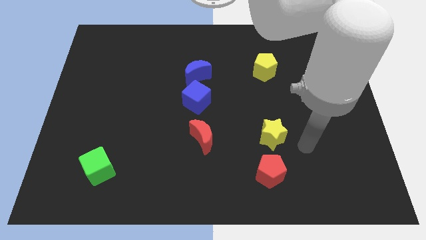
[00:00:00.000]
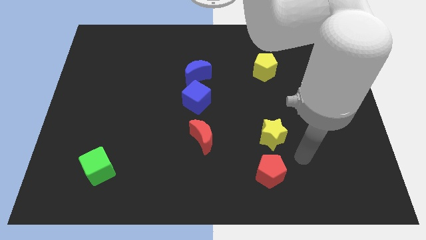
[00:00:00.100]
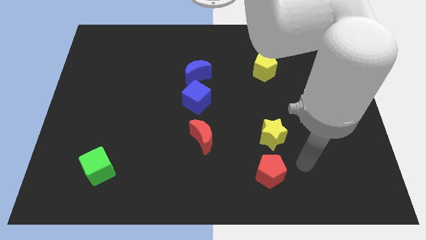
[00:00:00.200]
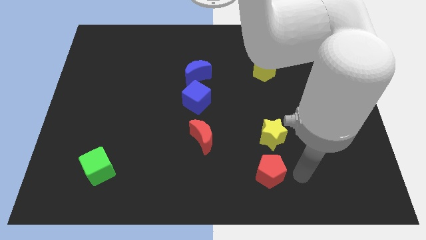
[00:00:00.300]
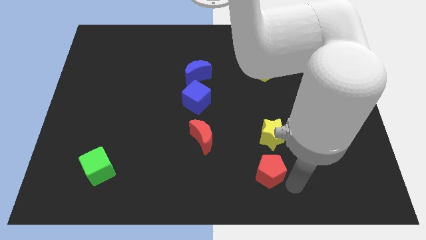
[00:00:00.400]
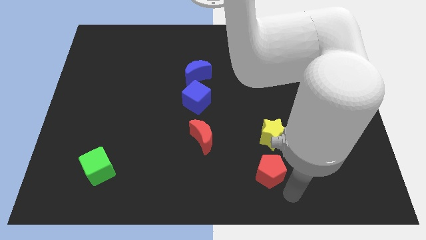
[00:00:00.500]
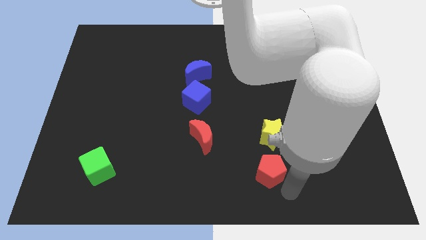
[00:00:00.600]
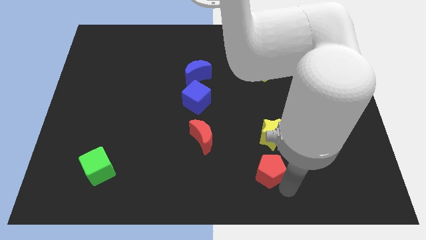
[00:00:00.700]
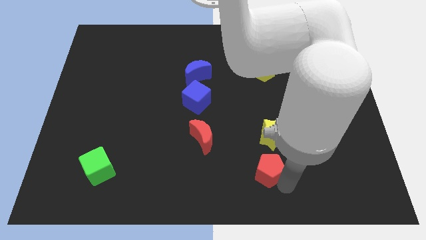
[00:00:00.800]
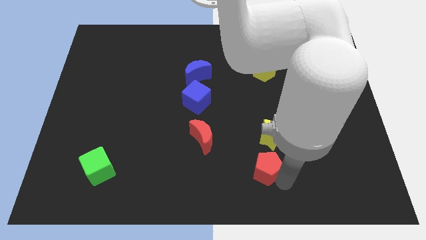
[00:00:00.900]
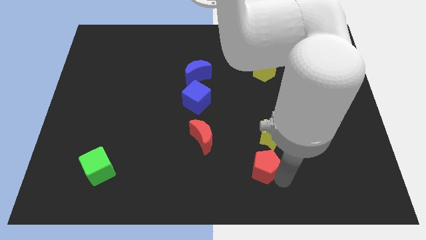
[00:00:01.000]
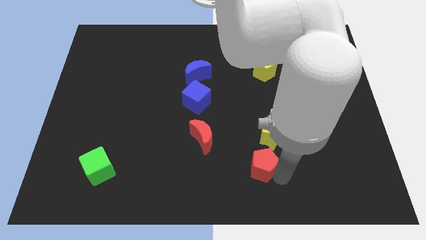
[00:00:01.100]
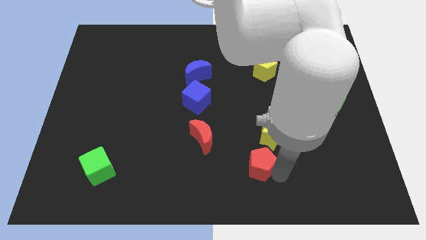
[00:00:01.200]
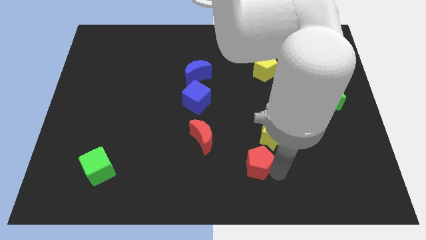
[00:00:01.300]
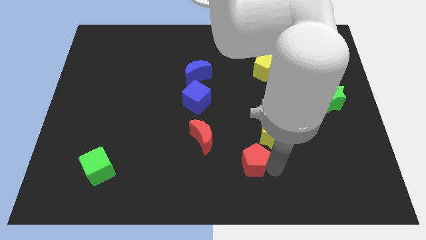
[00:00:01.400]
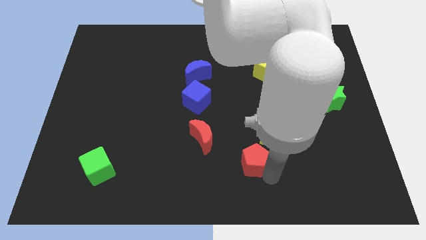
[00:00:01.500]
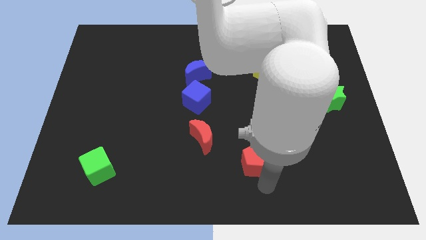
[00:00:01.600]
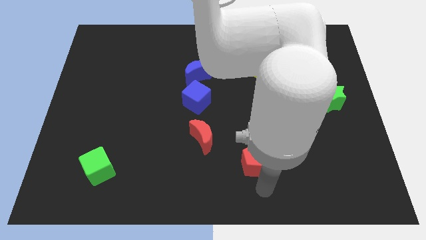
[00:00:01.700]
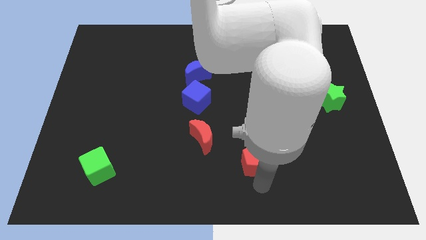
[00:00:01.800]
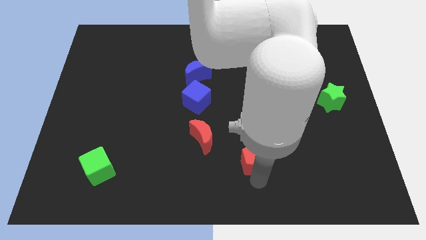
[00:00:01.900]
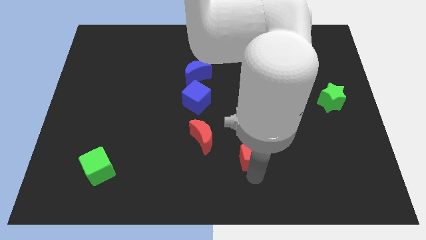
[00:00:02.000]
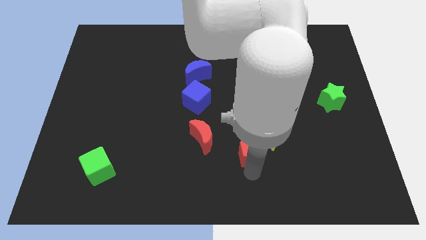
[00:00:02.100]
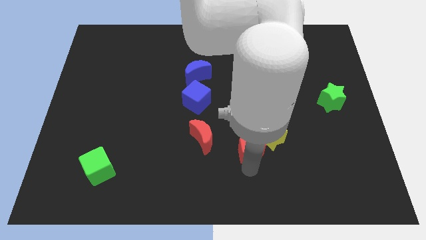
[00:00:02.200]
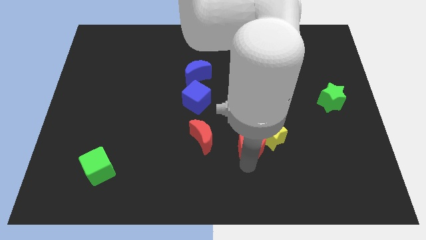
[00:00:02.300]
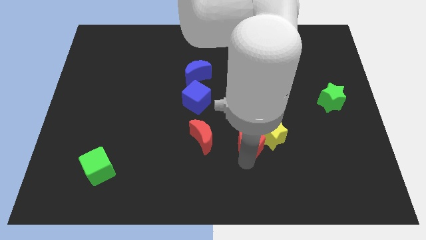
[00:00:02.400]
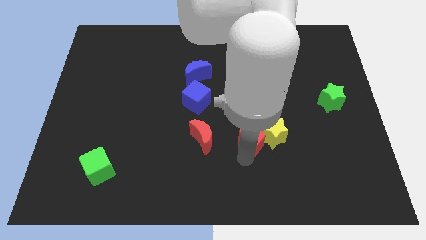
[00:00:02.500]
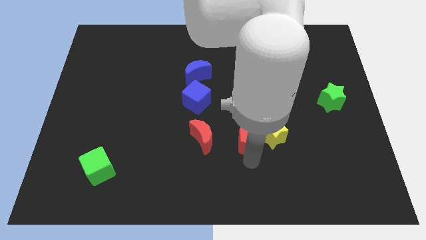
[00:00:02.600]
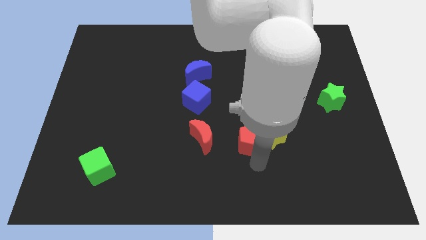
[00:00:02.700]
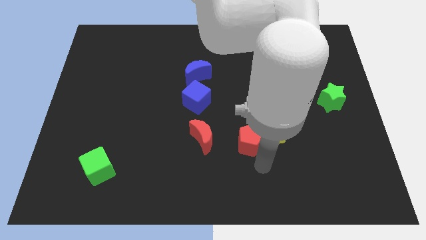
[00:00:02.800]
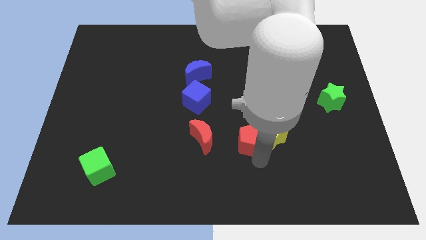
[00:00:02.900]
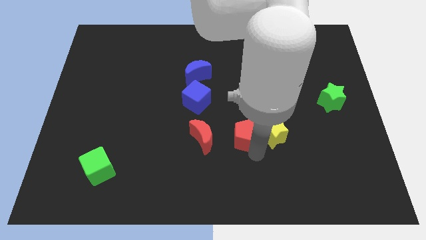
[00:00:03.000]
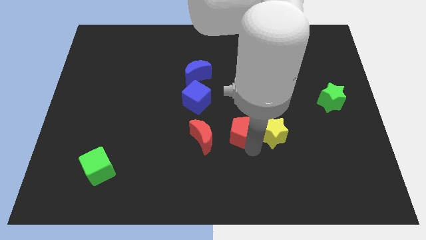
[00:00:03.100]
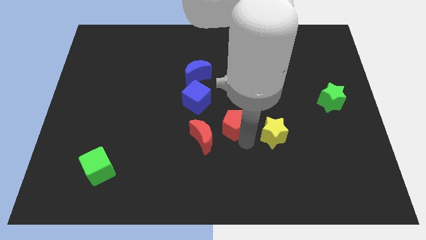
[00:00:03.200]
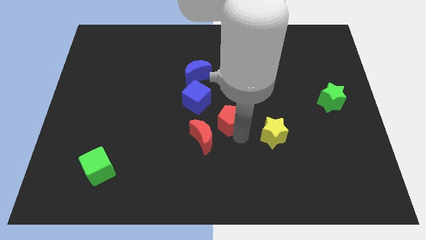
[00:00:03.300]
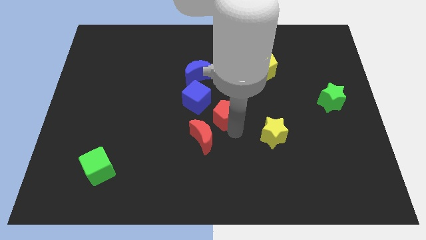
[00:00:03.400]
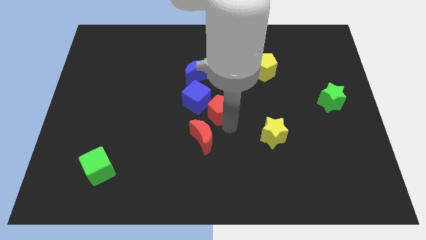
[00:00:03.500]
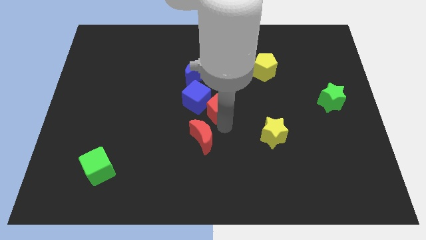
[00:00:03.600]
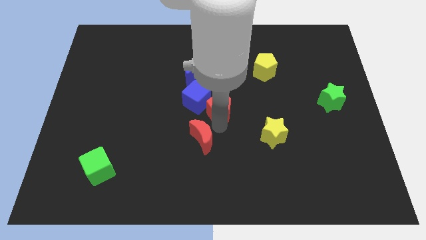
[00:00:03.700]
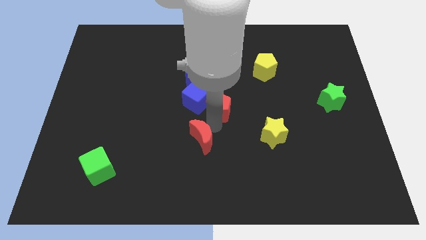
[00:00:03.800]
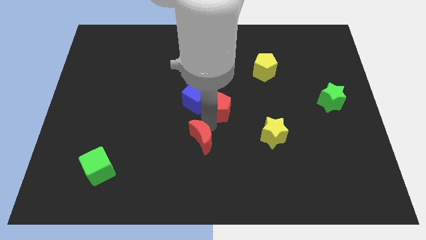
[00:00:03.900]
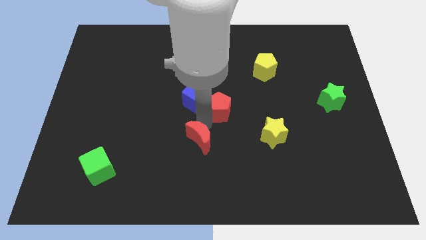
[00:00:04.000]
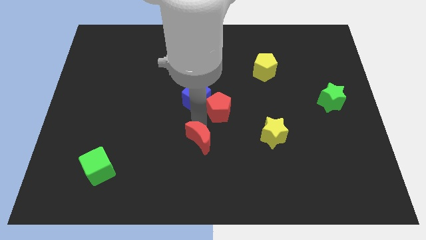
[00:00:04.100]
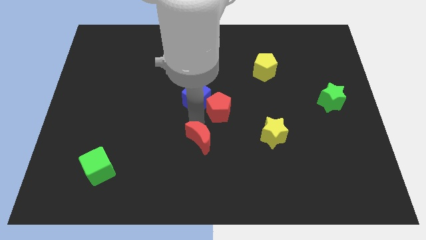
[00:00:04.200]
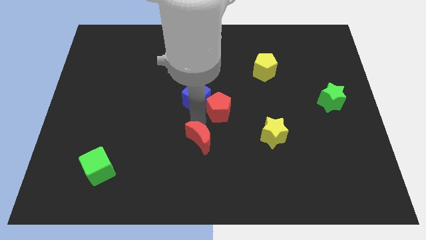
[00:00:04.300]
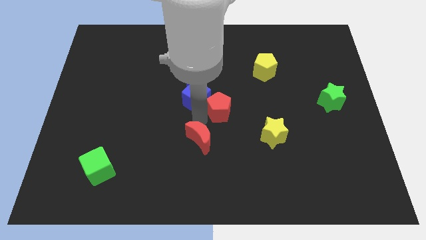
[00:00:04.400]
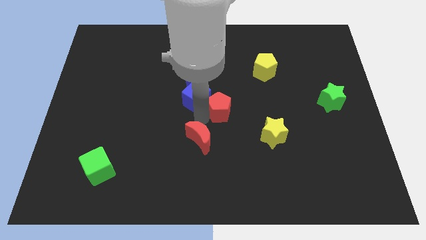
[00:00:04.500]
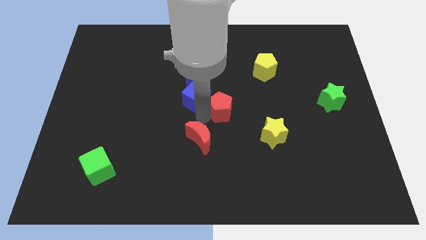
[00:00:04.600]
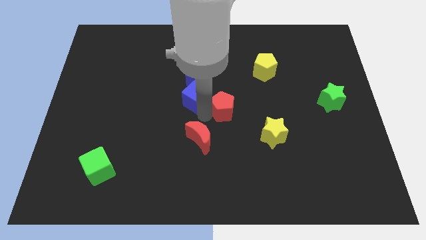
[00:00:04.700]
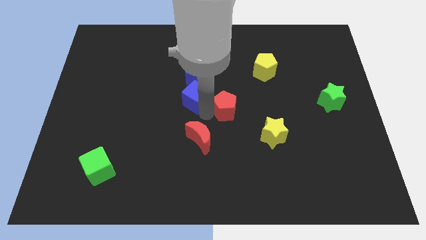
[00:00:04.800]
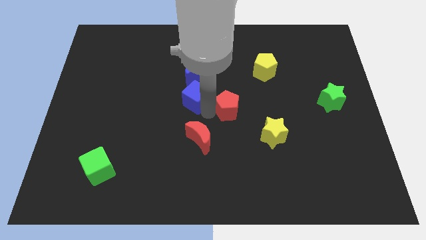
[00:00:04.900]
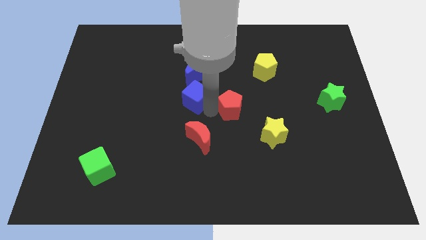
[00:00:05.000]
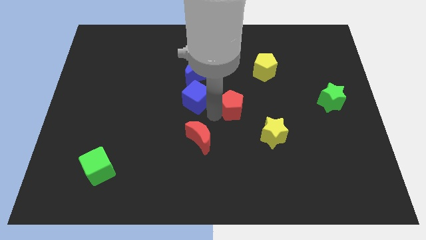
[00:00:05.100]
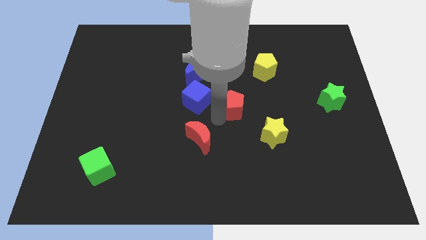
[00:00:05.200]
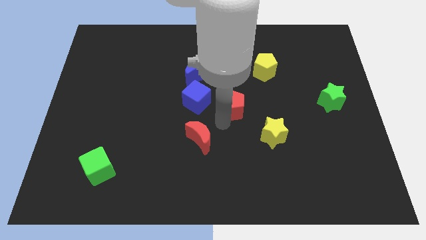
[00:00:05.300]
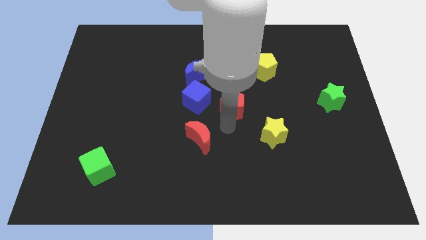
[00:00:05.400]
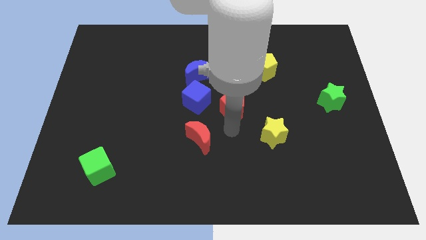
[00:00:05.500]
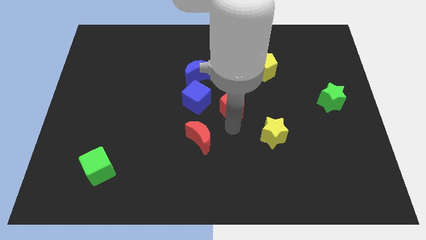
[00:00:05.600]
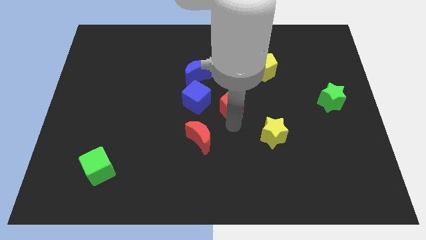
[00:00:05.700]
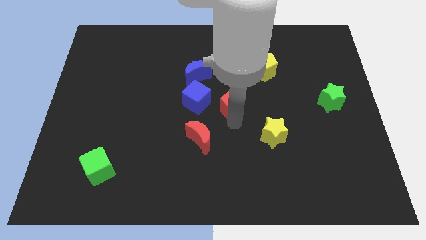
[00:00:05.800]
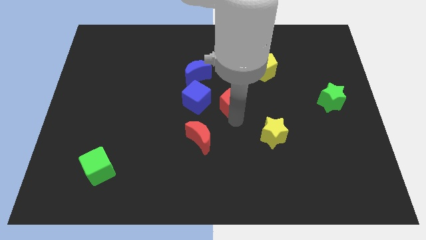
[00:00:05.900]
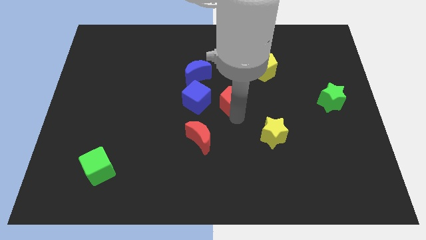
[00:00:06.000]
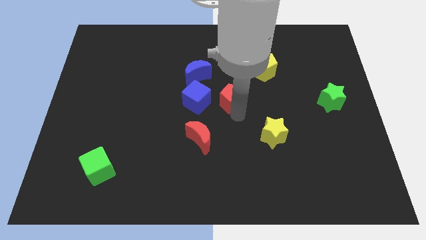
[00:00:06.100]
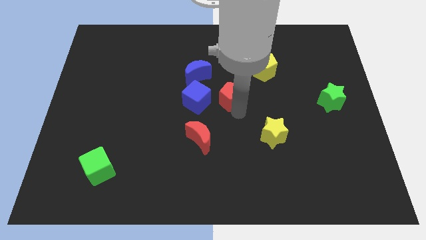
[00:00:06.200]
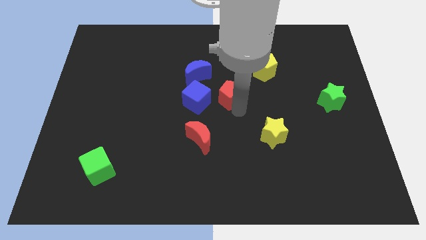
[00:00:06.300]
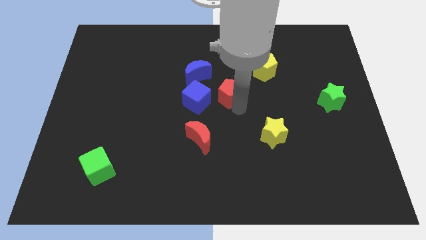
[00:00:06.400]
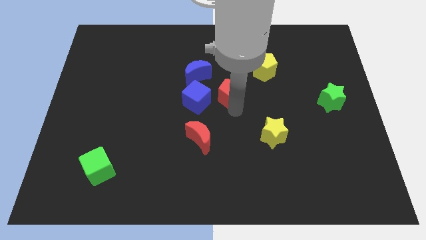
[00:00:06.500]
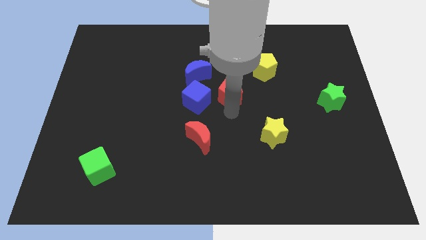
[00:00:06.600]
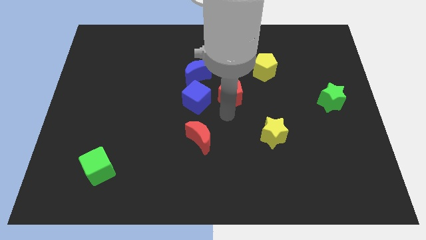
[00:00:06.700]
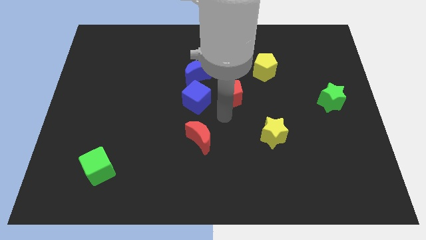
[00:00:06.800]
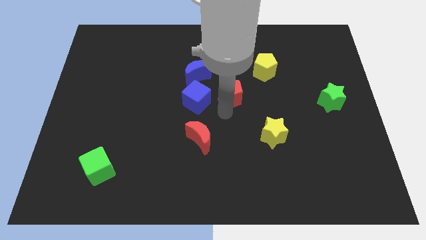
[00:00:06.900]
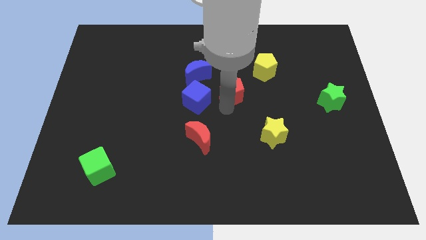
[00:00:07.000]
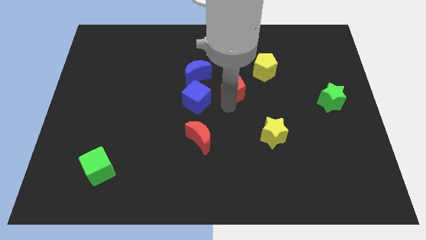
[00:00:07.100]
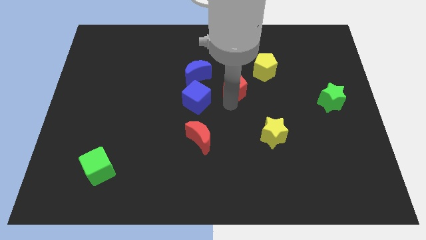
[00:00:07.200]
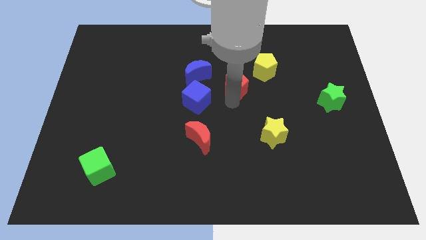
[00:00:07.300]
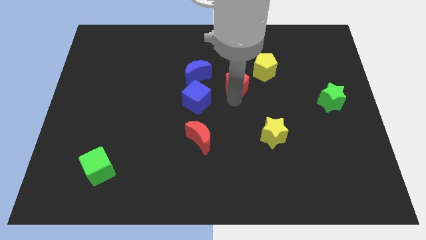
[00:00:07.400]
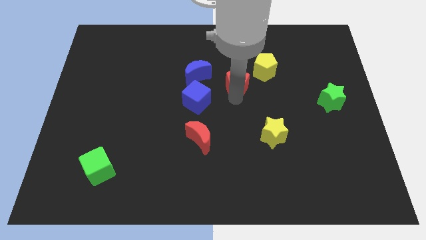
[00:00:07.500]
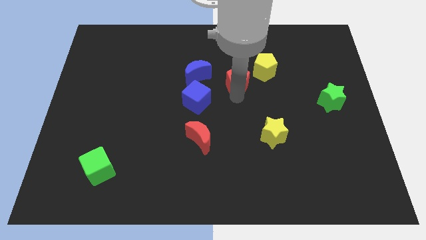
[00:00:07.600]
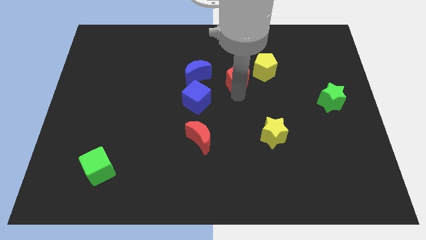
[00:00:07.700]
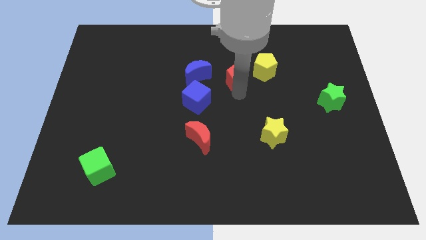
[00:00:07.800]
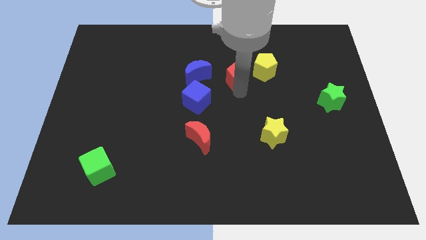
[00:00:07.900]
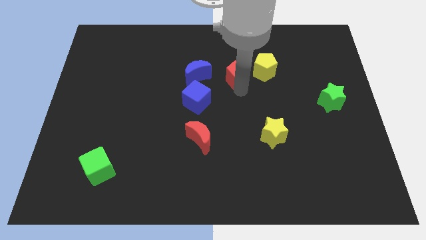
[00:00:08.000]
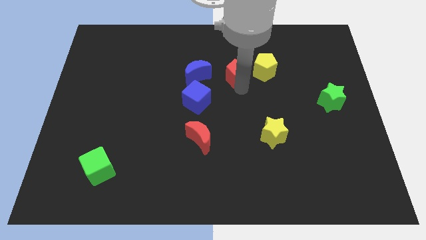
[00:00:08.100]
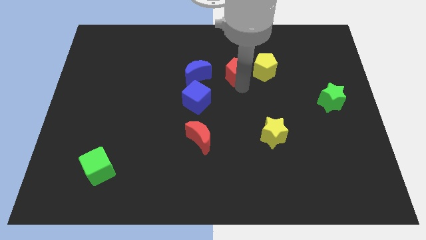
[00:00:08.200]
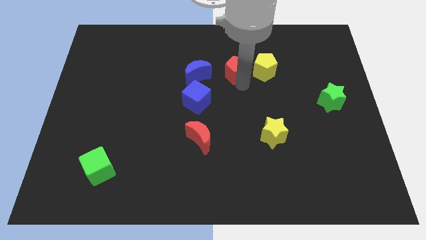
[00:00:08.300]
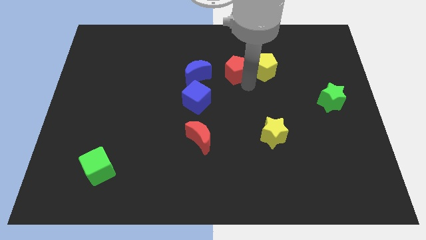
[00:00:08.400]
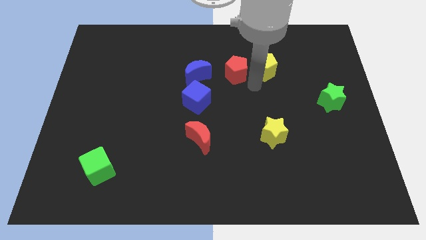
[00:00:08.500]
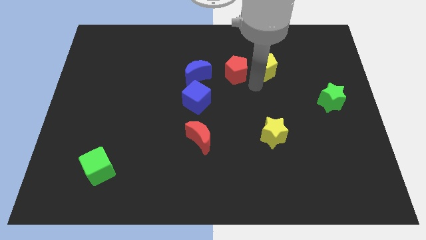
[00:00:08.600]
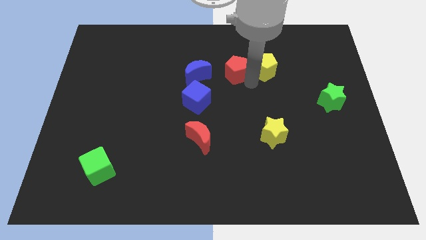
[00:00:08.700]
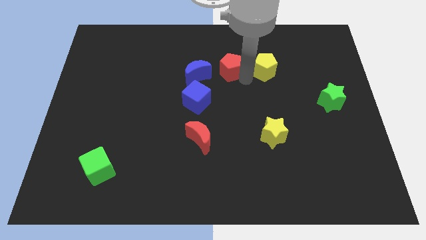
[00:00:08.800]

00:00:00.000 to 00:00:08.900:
put the red pentagon to the top right side of the blue moon
